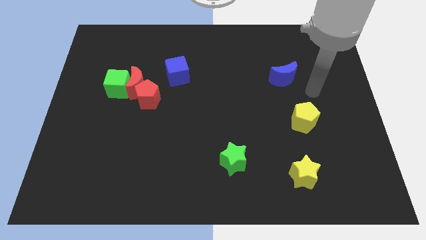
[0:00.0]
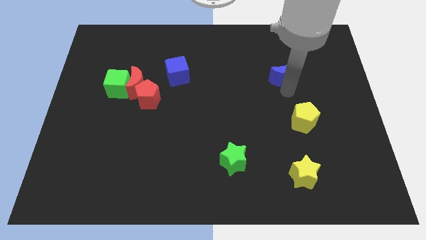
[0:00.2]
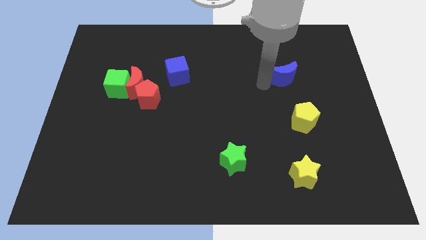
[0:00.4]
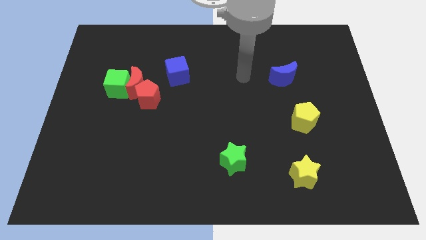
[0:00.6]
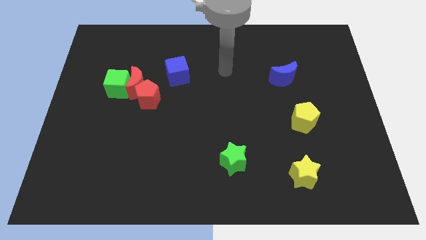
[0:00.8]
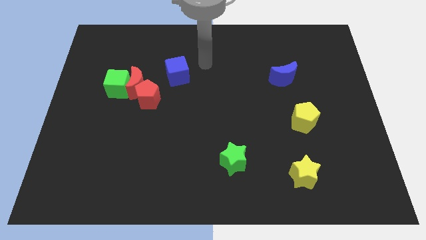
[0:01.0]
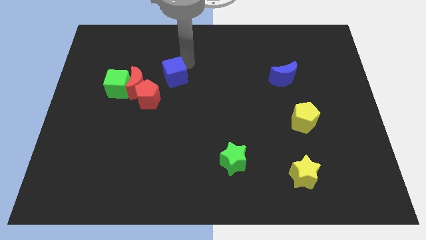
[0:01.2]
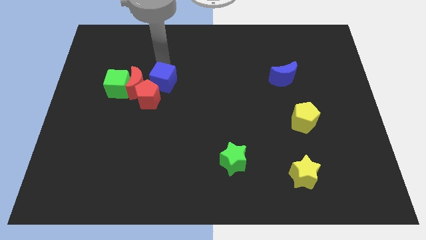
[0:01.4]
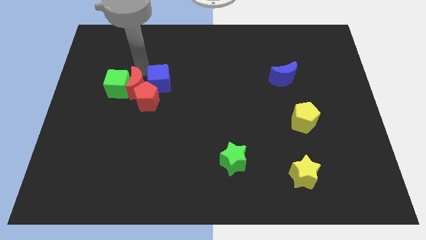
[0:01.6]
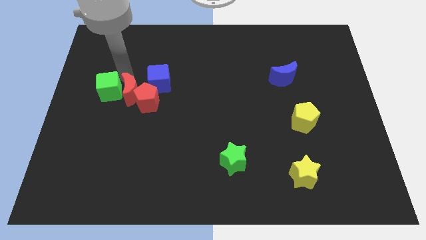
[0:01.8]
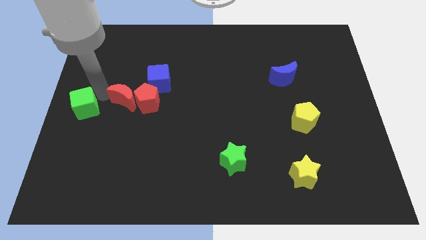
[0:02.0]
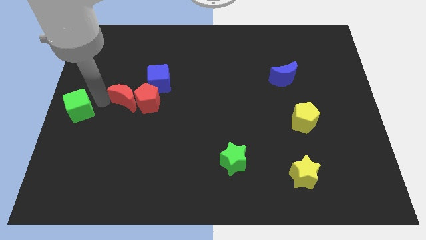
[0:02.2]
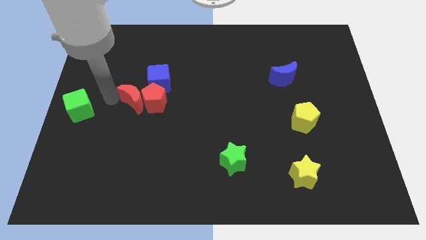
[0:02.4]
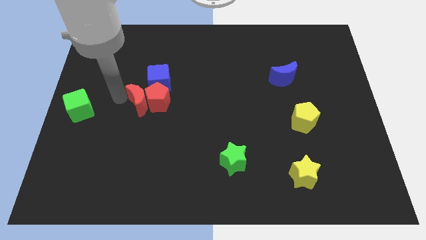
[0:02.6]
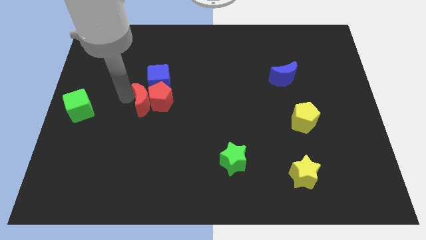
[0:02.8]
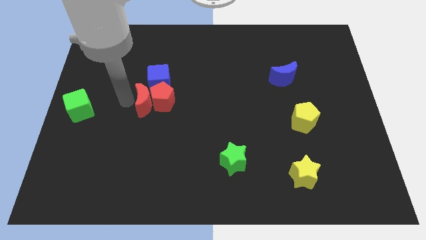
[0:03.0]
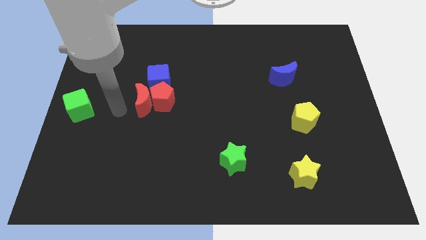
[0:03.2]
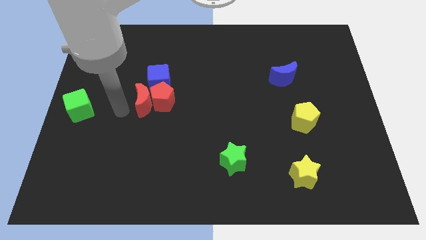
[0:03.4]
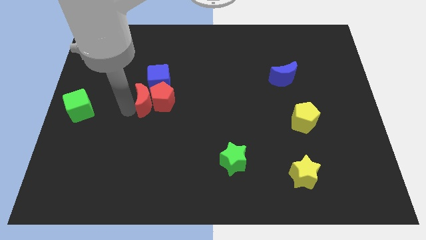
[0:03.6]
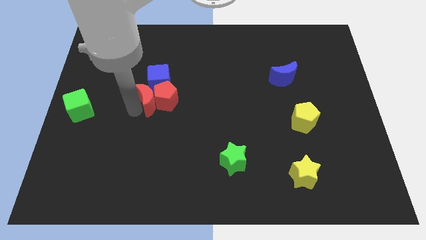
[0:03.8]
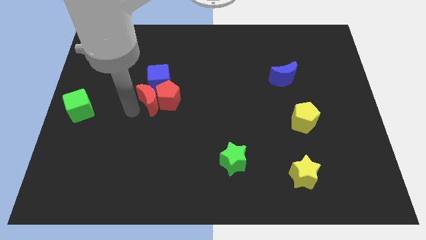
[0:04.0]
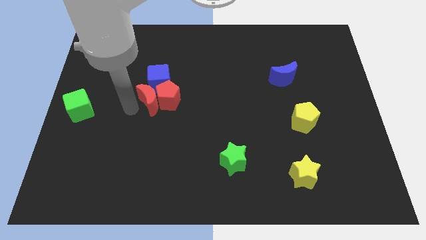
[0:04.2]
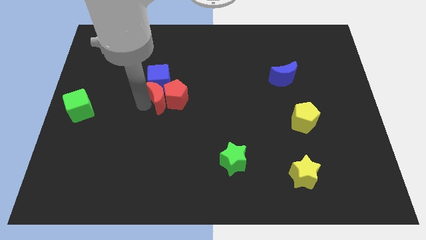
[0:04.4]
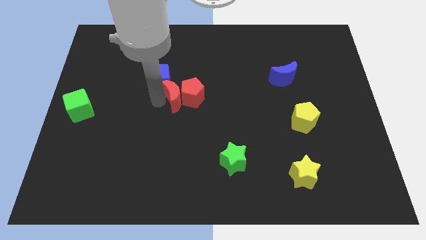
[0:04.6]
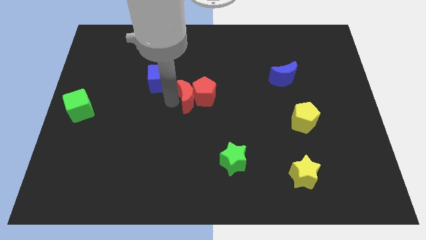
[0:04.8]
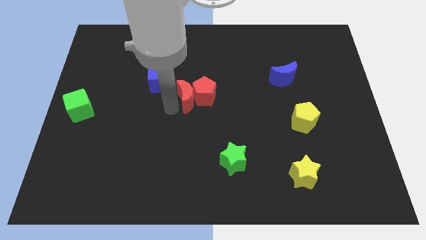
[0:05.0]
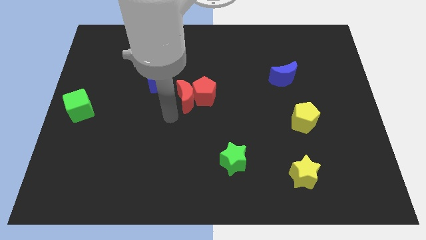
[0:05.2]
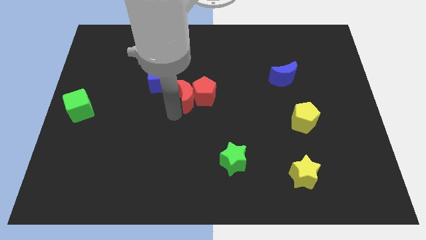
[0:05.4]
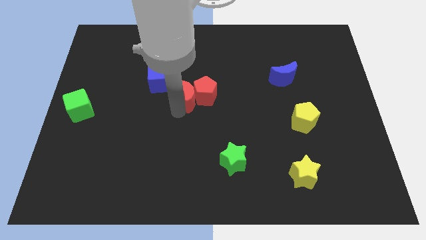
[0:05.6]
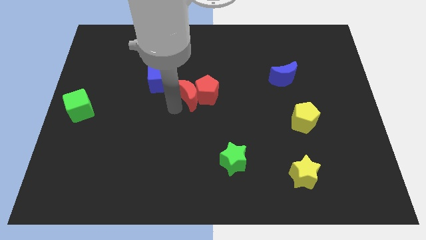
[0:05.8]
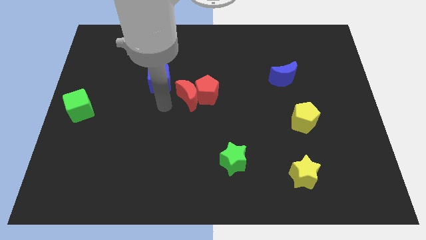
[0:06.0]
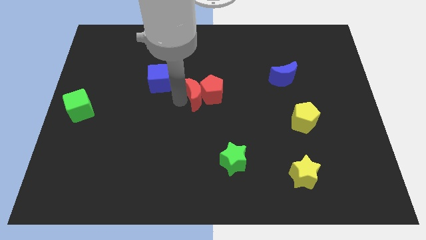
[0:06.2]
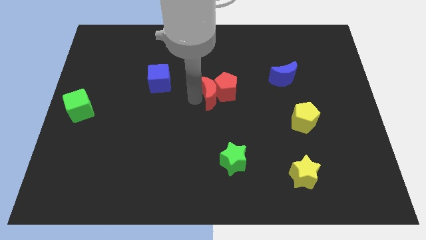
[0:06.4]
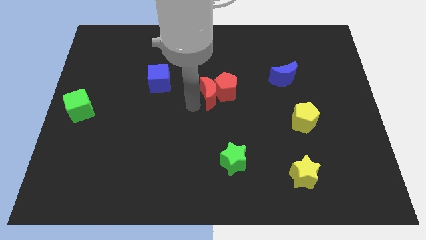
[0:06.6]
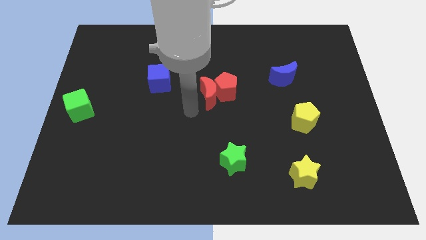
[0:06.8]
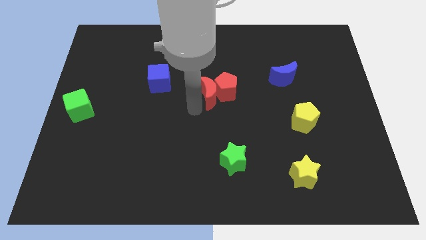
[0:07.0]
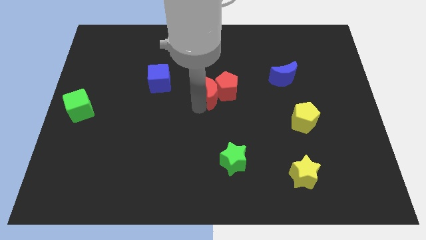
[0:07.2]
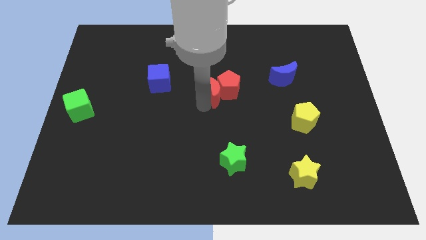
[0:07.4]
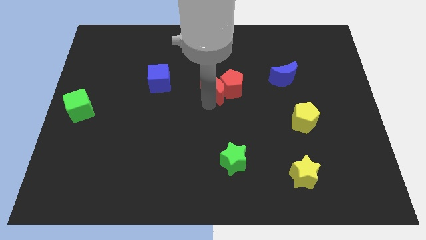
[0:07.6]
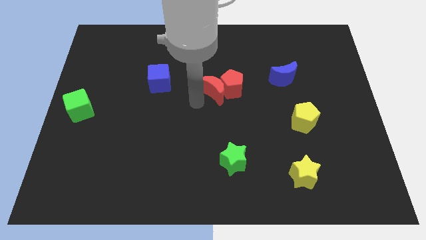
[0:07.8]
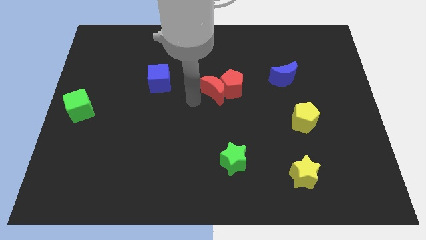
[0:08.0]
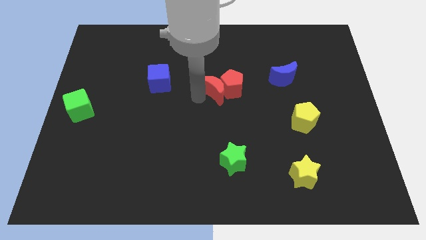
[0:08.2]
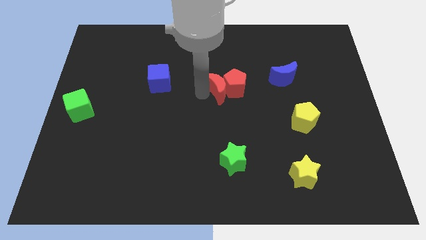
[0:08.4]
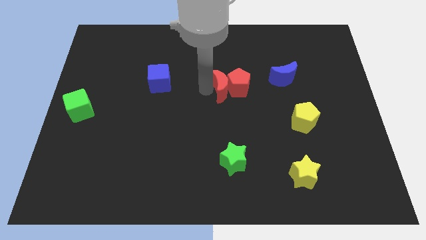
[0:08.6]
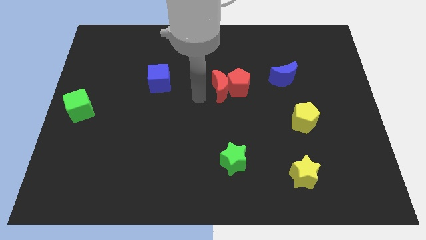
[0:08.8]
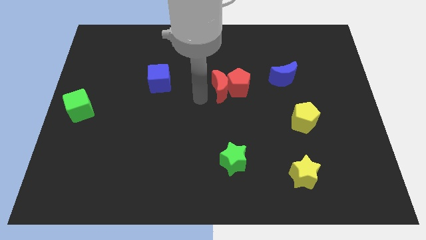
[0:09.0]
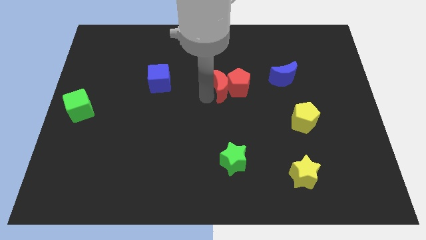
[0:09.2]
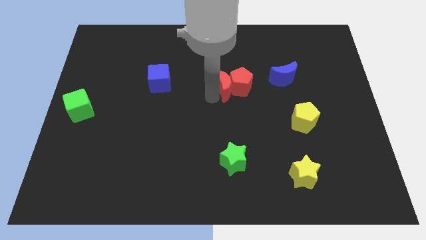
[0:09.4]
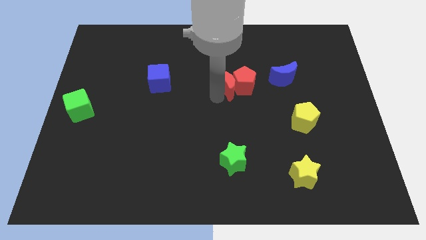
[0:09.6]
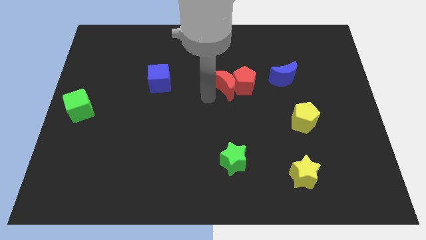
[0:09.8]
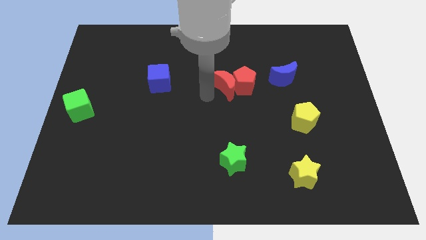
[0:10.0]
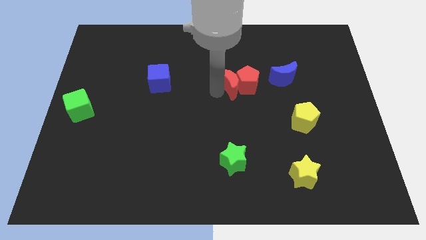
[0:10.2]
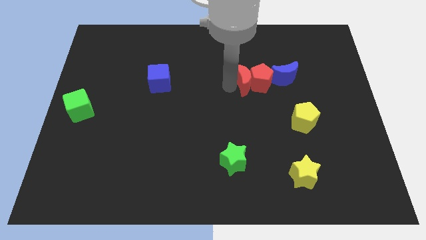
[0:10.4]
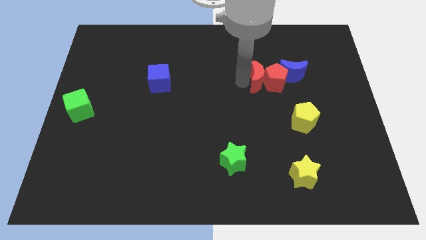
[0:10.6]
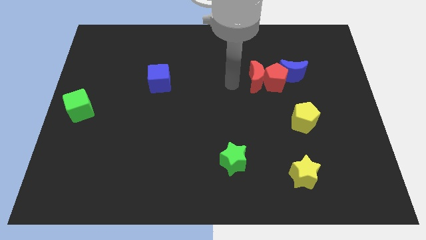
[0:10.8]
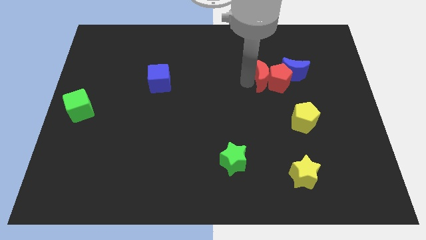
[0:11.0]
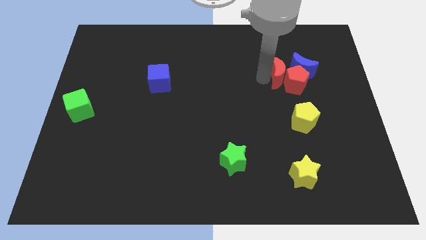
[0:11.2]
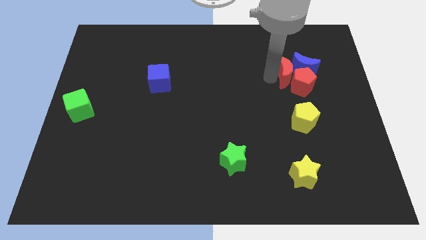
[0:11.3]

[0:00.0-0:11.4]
put the red moon next to the blue moon

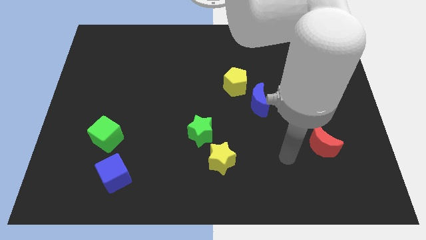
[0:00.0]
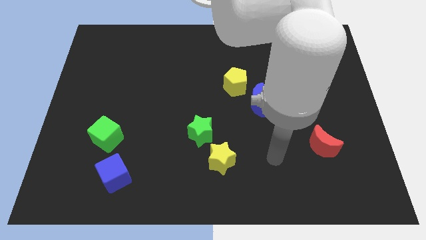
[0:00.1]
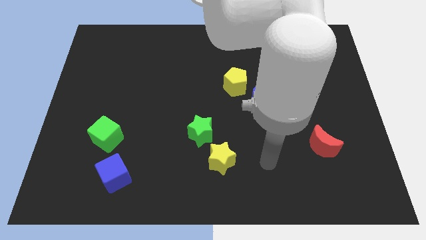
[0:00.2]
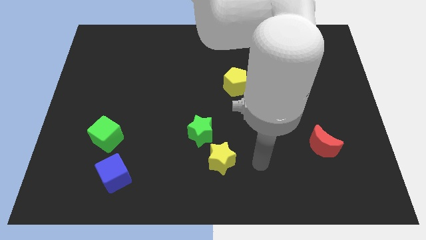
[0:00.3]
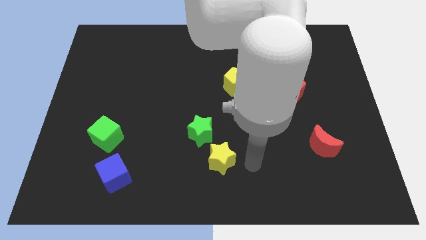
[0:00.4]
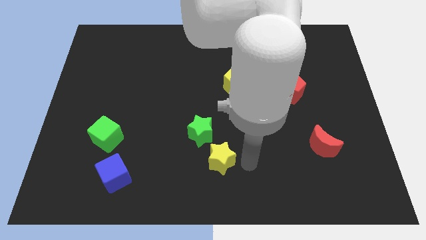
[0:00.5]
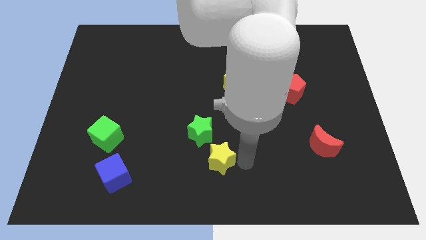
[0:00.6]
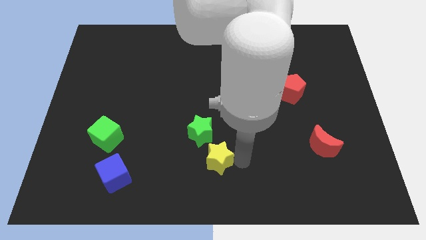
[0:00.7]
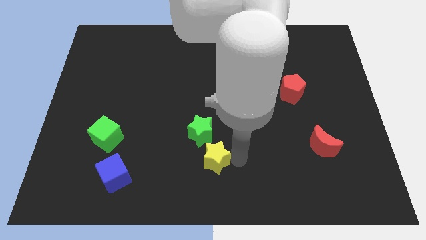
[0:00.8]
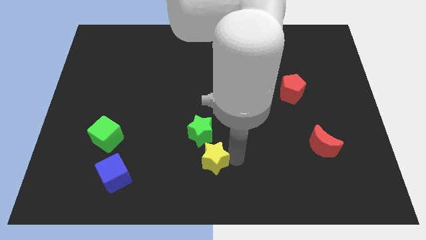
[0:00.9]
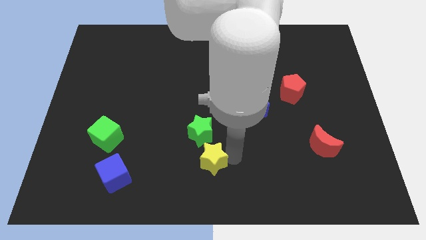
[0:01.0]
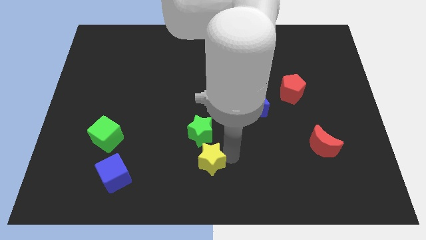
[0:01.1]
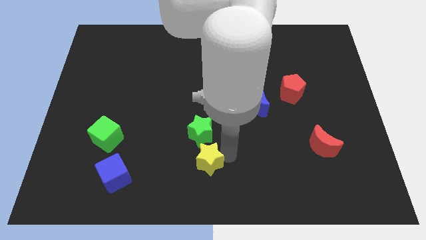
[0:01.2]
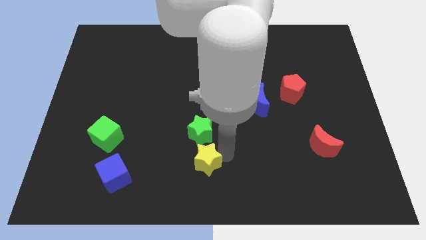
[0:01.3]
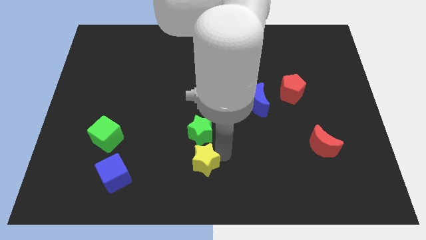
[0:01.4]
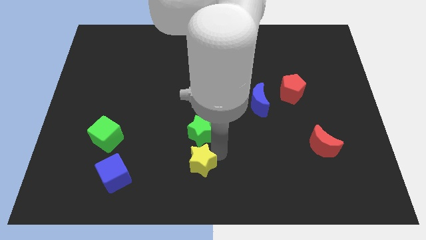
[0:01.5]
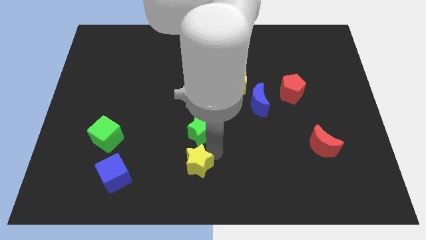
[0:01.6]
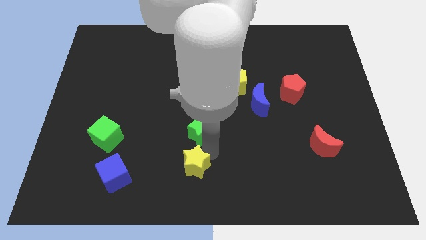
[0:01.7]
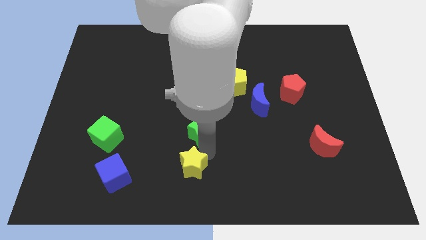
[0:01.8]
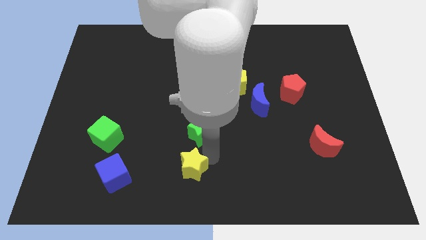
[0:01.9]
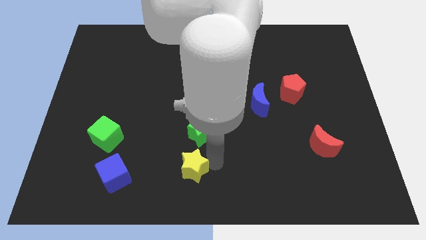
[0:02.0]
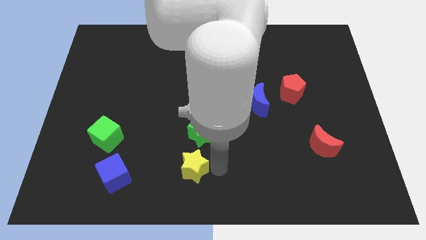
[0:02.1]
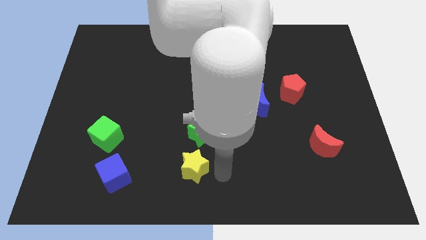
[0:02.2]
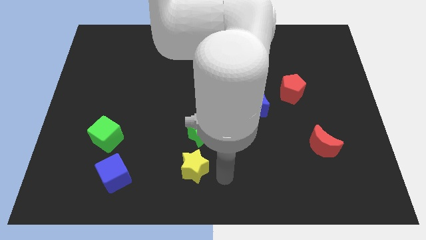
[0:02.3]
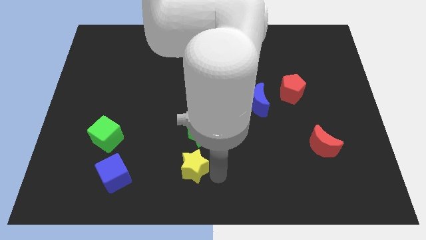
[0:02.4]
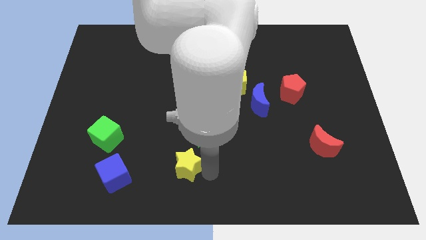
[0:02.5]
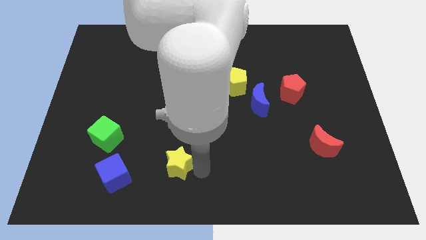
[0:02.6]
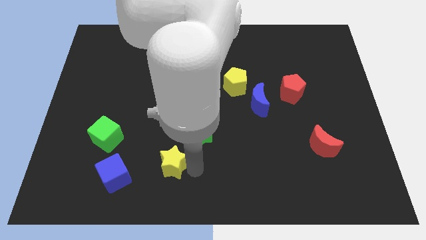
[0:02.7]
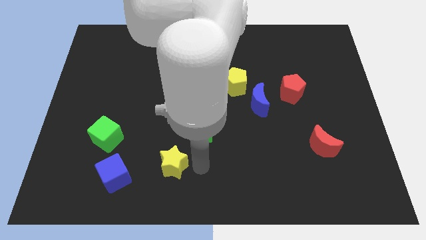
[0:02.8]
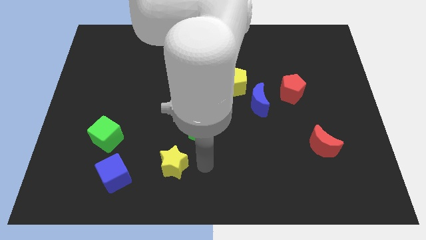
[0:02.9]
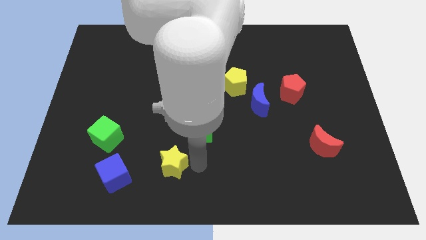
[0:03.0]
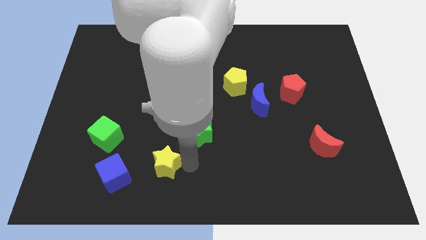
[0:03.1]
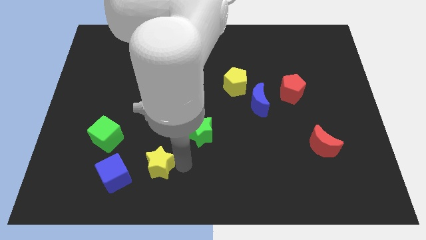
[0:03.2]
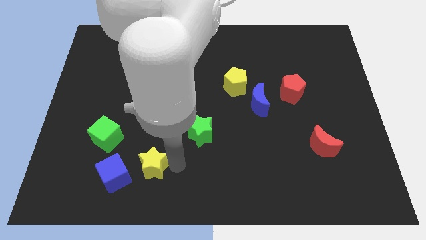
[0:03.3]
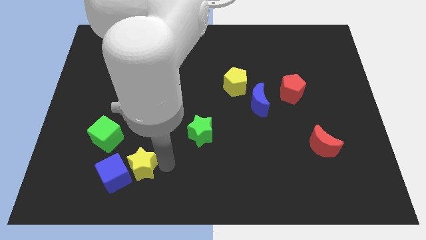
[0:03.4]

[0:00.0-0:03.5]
put the yellow star towards the blue cube
